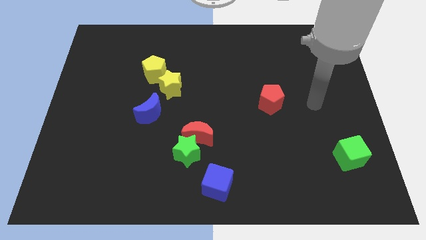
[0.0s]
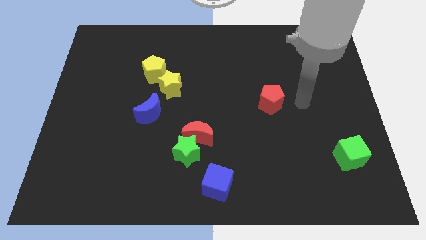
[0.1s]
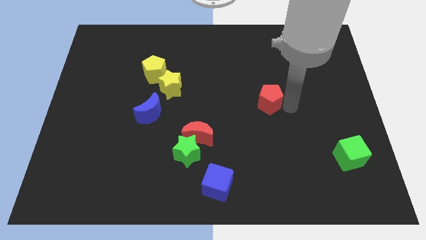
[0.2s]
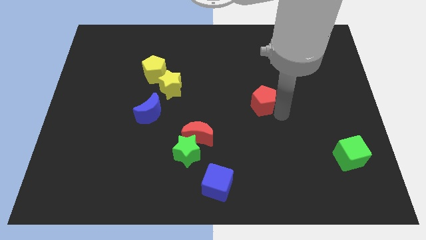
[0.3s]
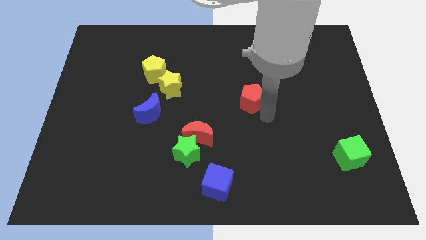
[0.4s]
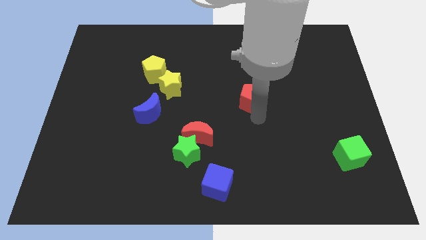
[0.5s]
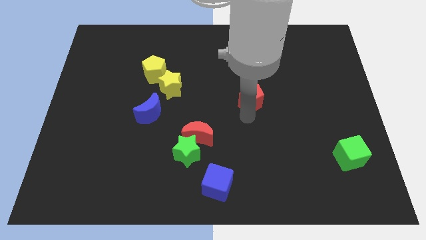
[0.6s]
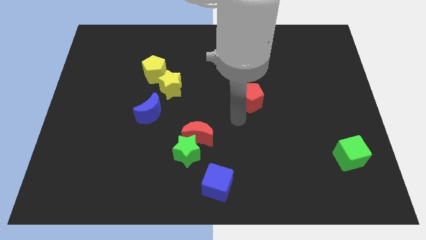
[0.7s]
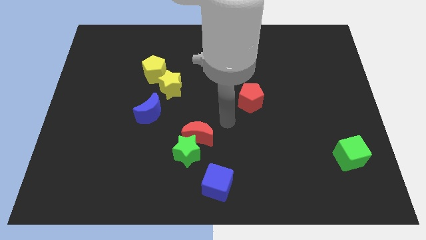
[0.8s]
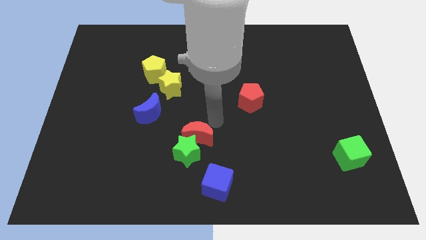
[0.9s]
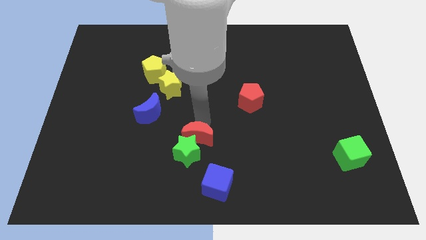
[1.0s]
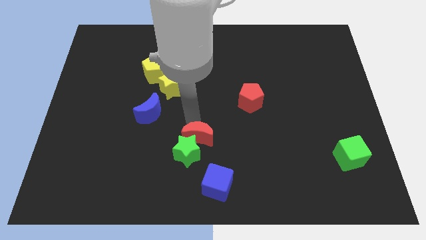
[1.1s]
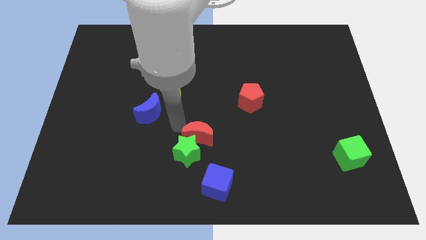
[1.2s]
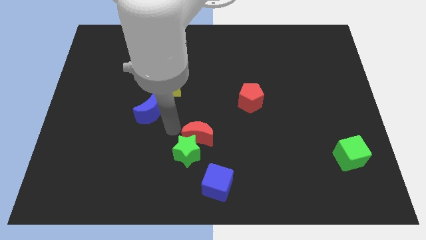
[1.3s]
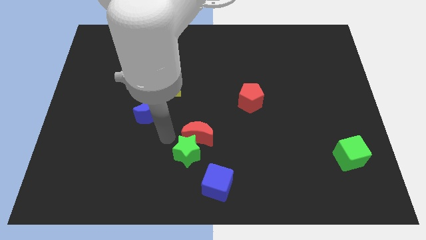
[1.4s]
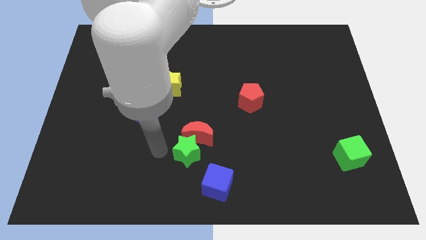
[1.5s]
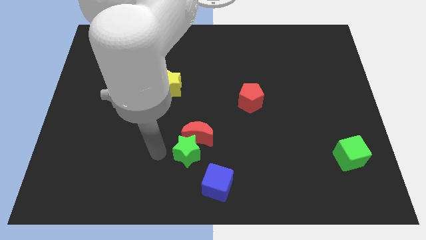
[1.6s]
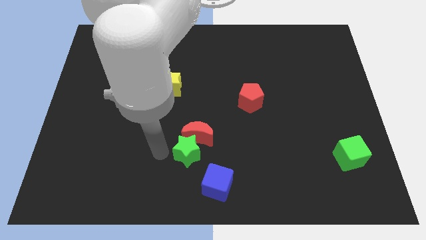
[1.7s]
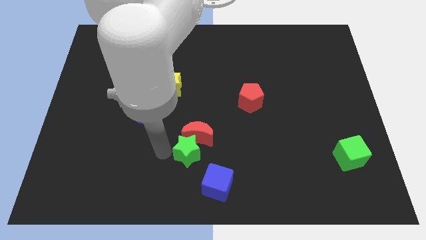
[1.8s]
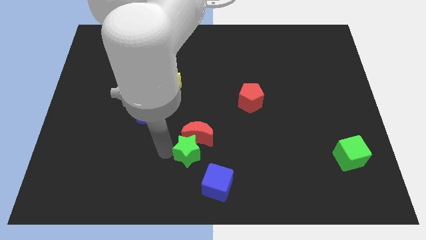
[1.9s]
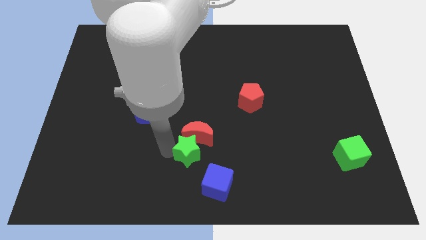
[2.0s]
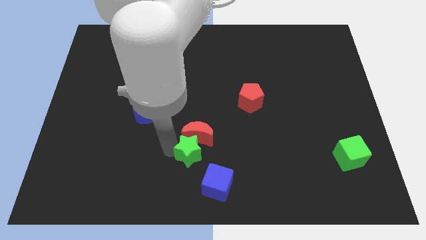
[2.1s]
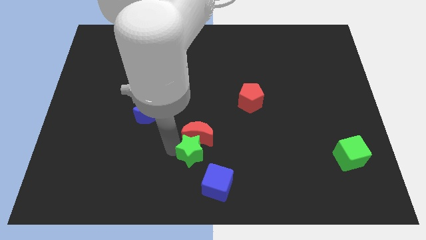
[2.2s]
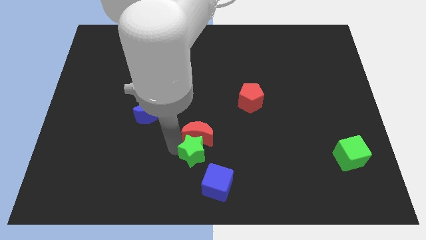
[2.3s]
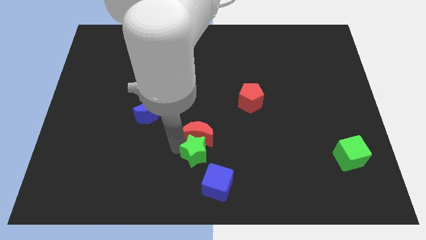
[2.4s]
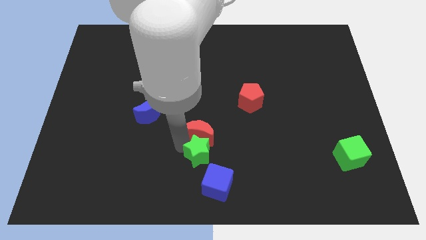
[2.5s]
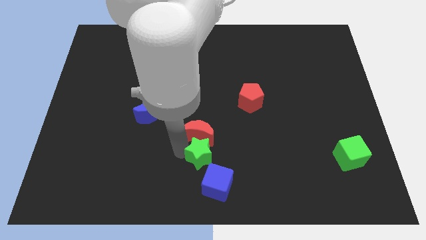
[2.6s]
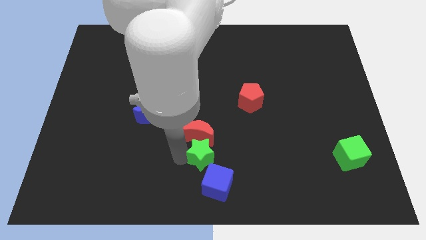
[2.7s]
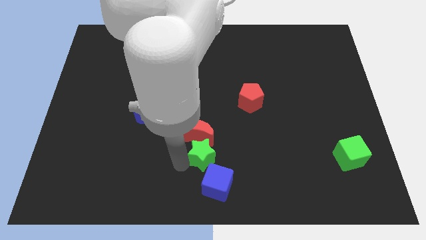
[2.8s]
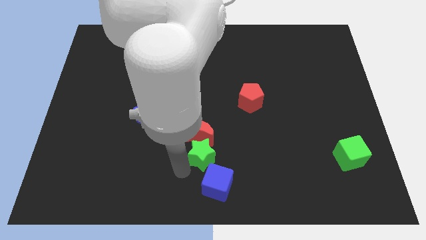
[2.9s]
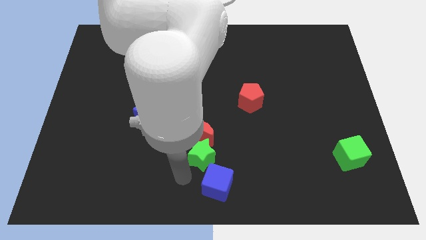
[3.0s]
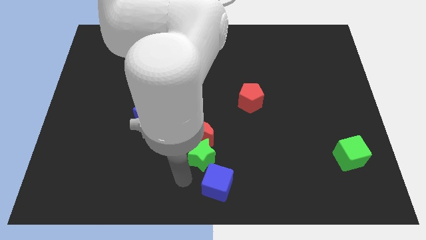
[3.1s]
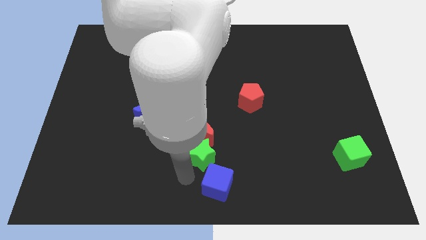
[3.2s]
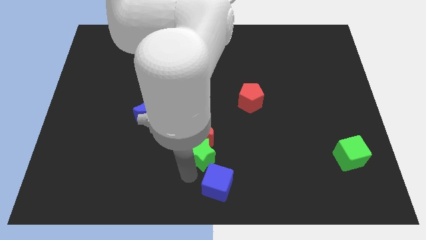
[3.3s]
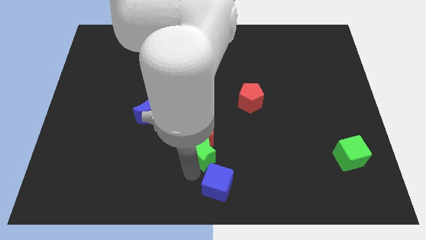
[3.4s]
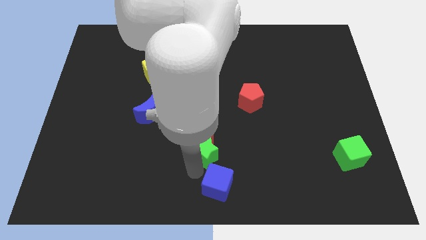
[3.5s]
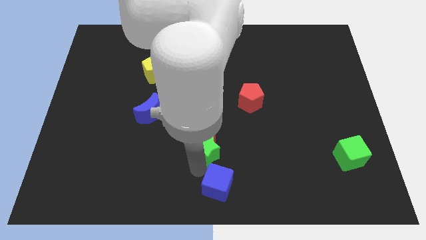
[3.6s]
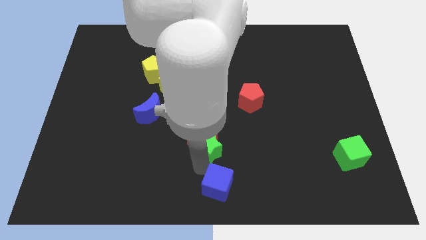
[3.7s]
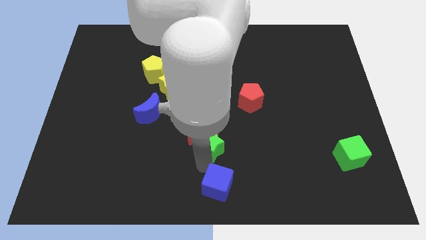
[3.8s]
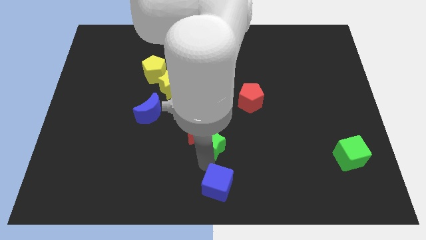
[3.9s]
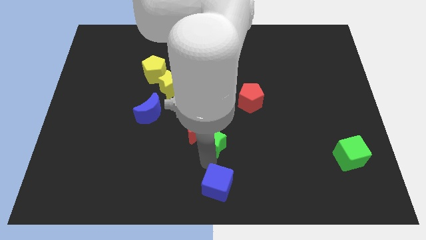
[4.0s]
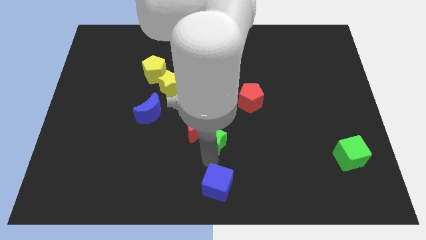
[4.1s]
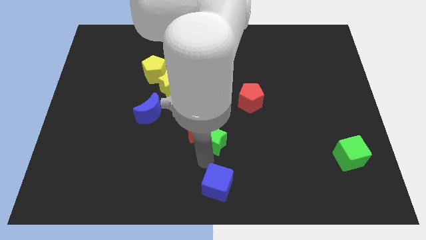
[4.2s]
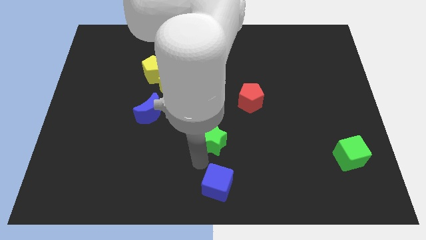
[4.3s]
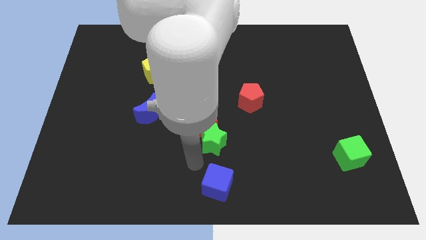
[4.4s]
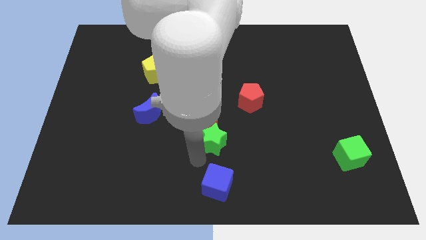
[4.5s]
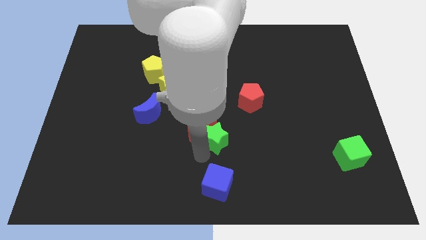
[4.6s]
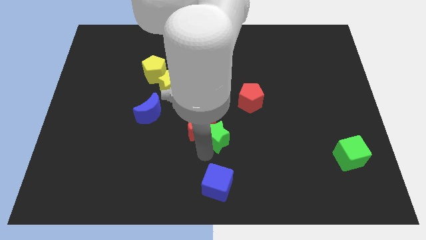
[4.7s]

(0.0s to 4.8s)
slightly slide the green star upwards and to the right

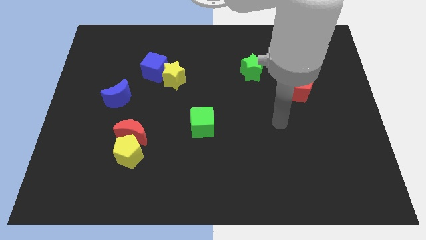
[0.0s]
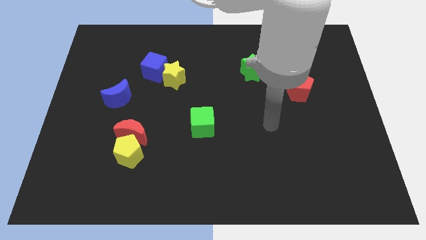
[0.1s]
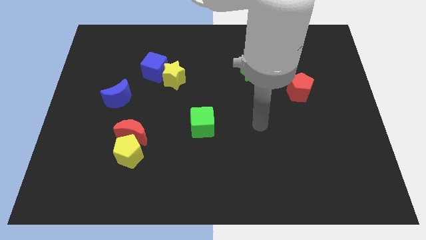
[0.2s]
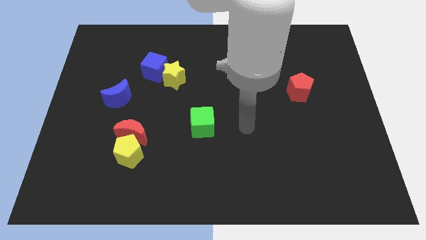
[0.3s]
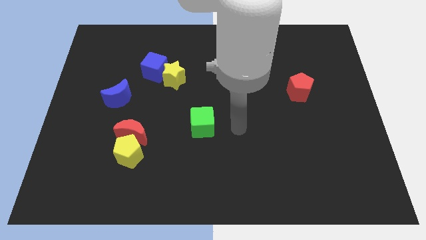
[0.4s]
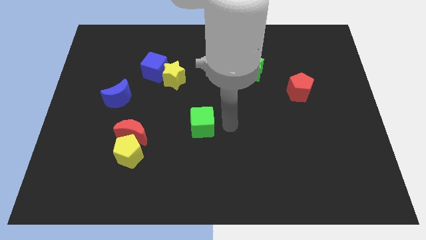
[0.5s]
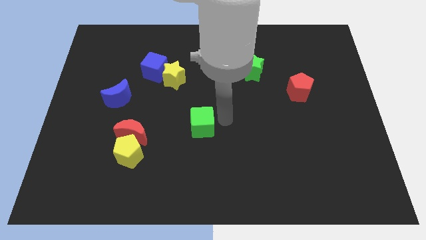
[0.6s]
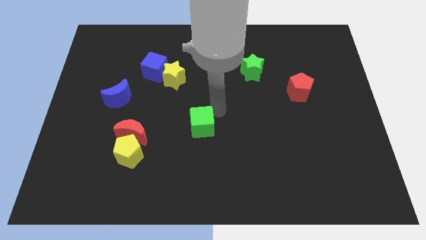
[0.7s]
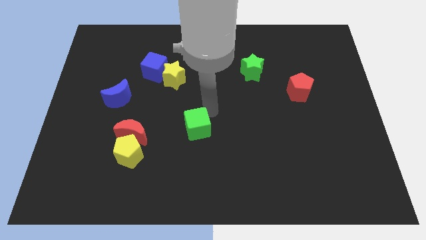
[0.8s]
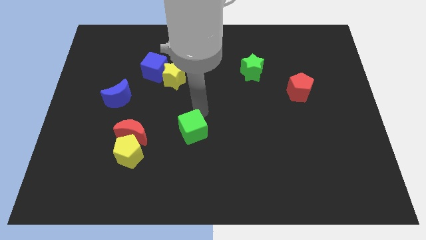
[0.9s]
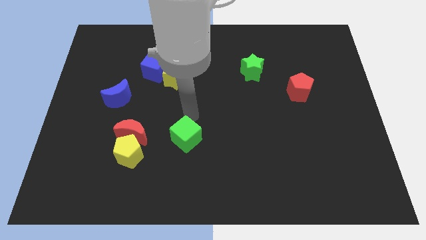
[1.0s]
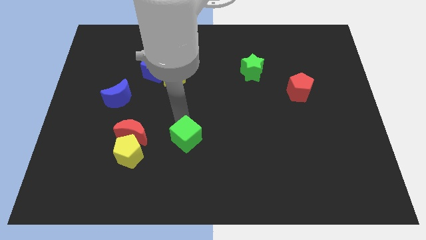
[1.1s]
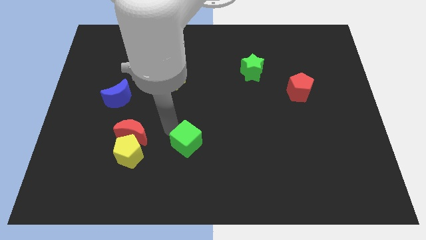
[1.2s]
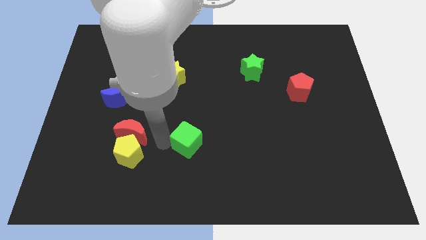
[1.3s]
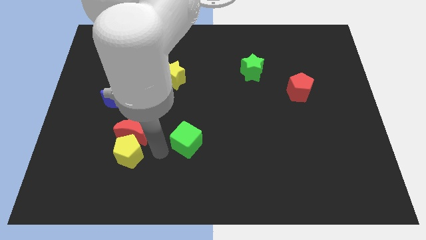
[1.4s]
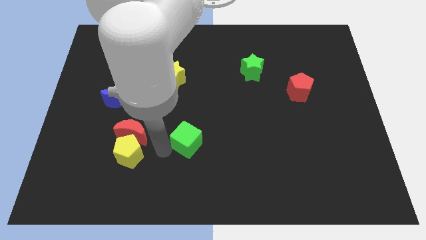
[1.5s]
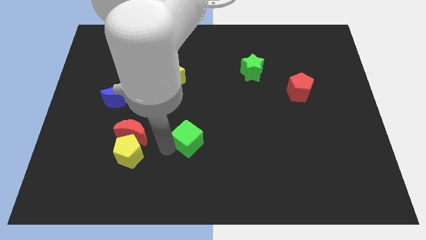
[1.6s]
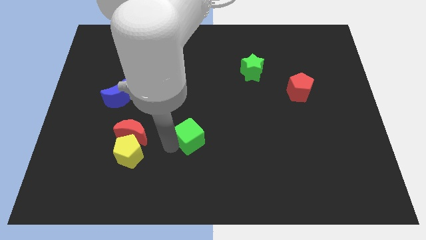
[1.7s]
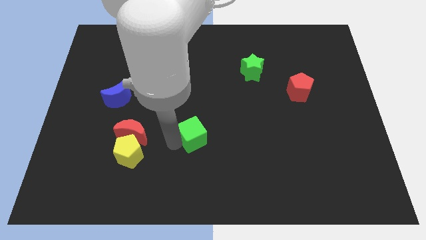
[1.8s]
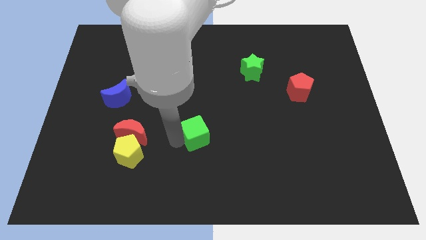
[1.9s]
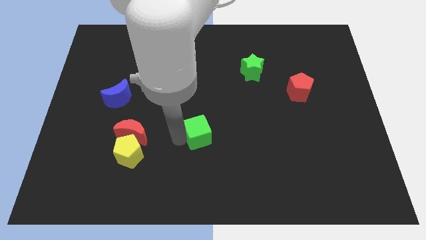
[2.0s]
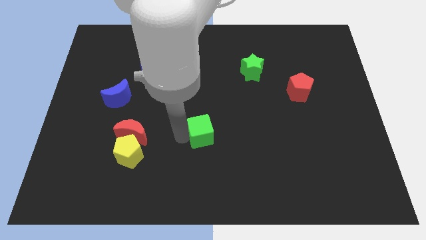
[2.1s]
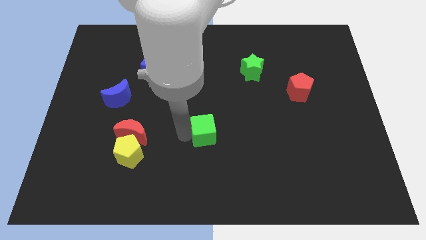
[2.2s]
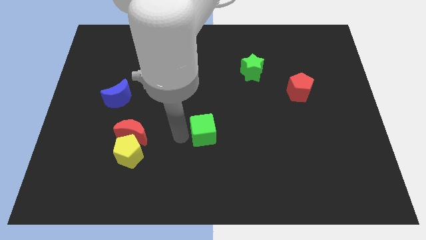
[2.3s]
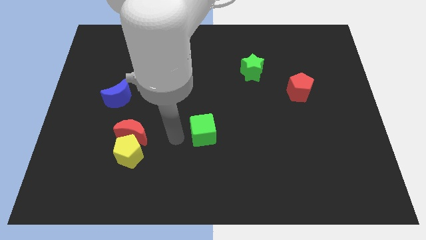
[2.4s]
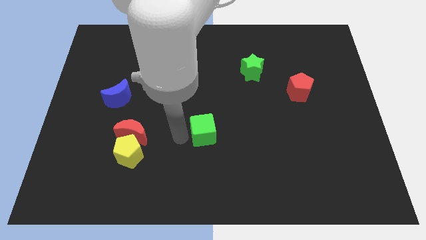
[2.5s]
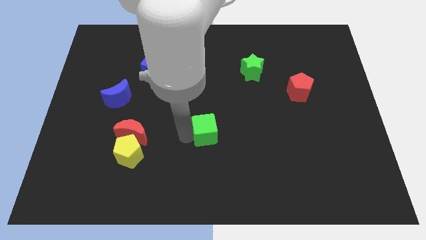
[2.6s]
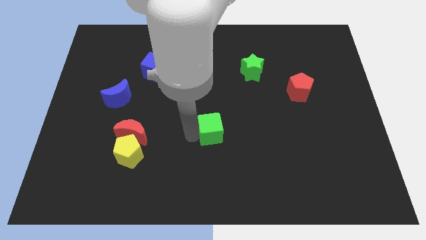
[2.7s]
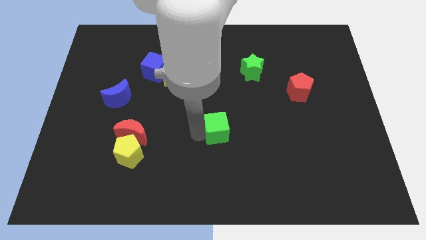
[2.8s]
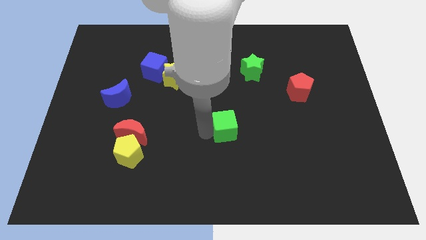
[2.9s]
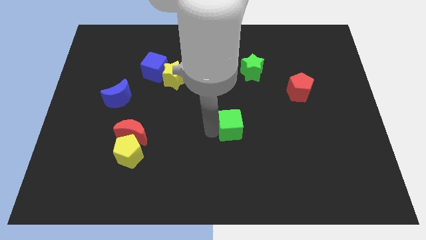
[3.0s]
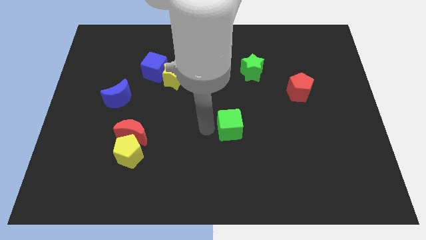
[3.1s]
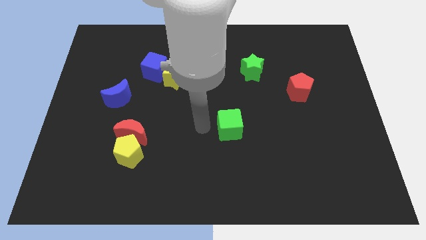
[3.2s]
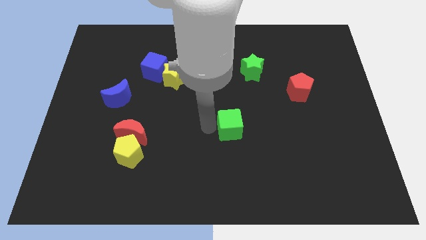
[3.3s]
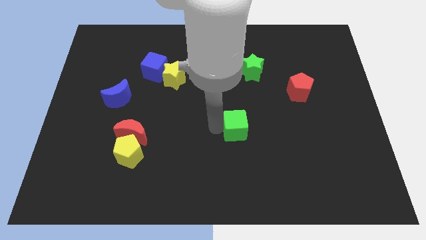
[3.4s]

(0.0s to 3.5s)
push the green cube right somewhat
